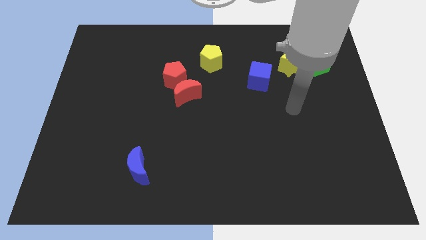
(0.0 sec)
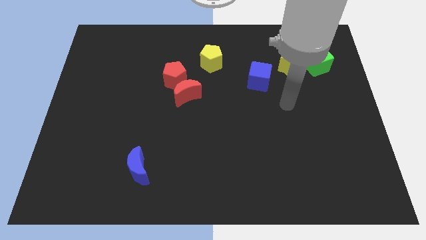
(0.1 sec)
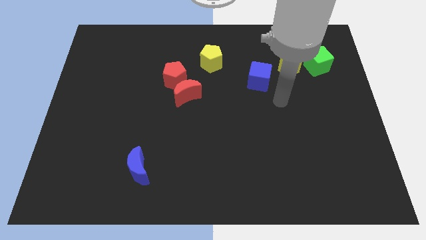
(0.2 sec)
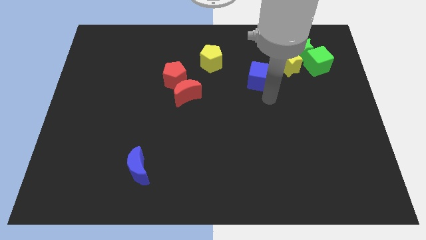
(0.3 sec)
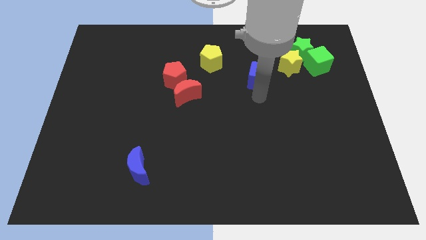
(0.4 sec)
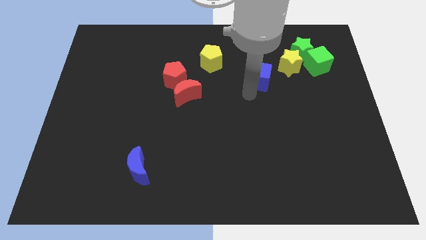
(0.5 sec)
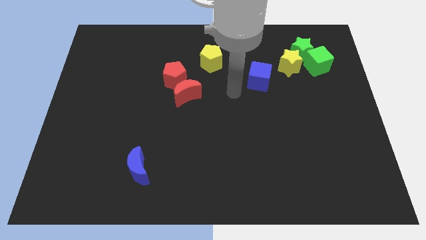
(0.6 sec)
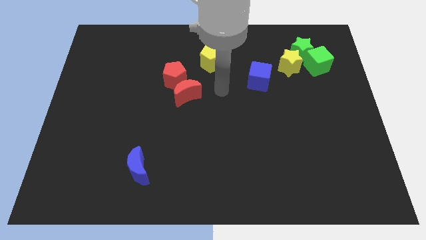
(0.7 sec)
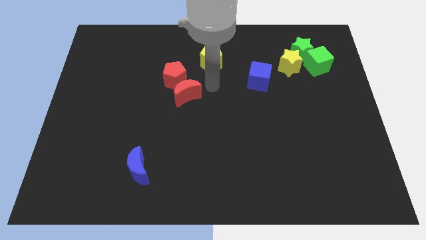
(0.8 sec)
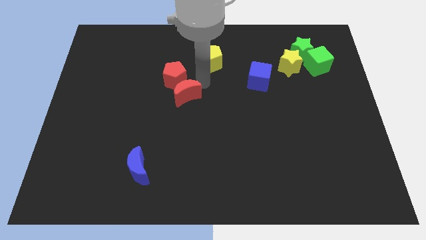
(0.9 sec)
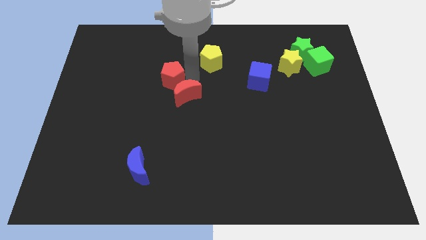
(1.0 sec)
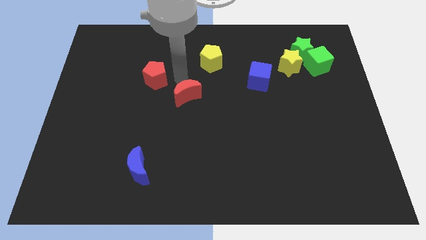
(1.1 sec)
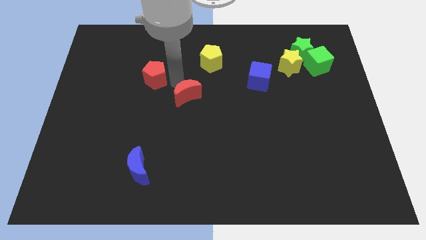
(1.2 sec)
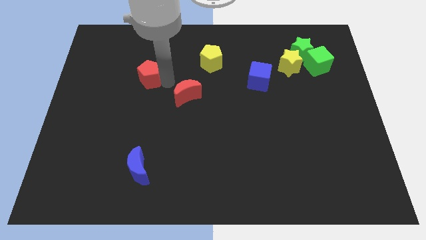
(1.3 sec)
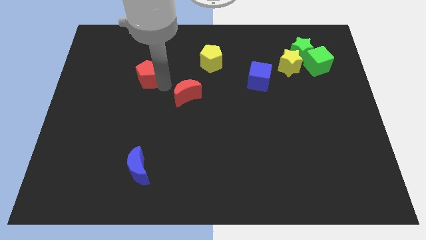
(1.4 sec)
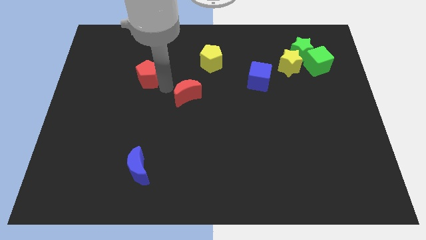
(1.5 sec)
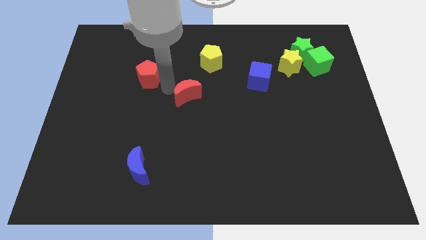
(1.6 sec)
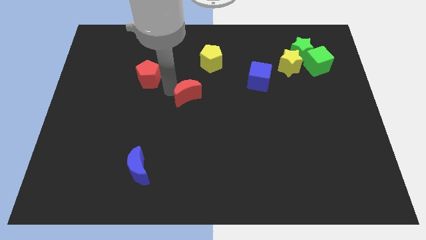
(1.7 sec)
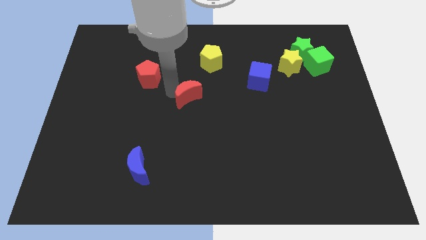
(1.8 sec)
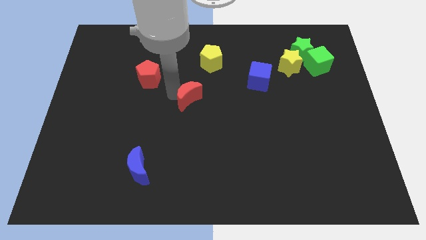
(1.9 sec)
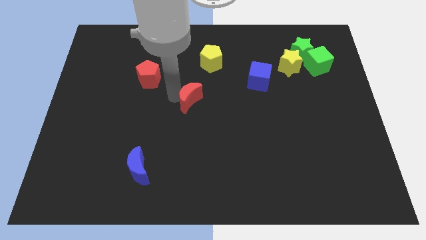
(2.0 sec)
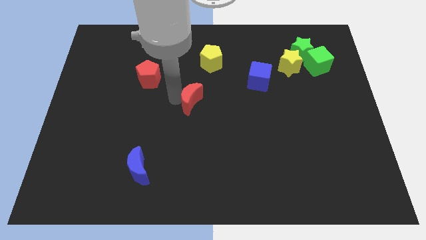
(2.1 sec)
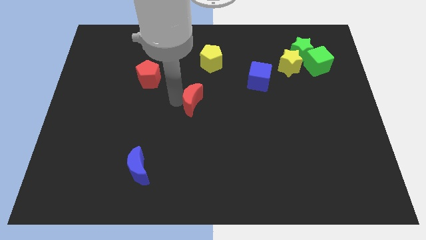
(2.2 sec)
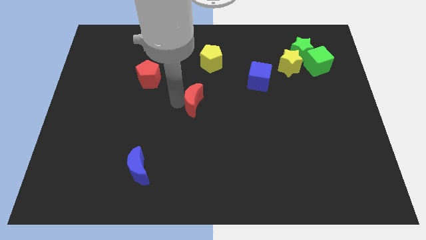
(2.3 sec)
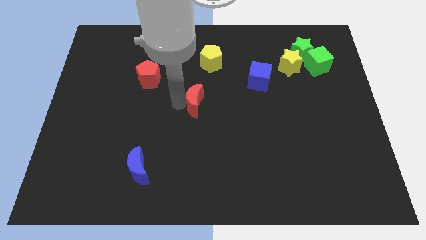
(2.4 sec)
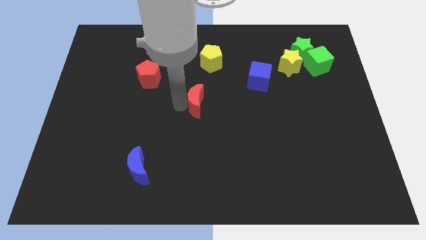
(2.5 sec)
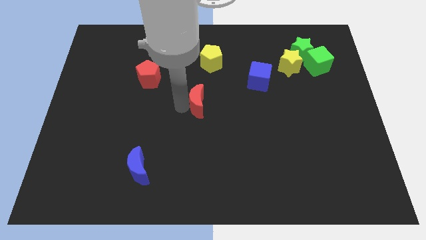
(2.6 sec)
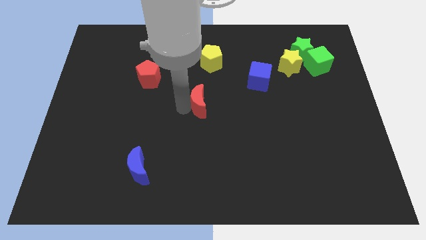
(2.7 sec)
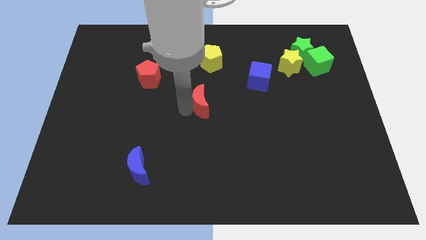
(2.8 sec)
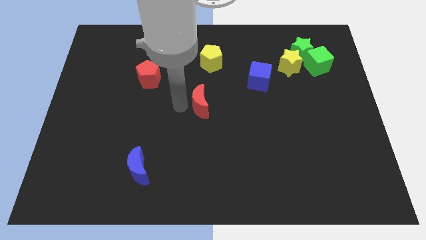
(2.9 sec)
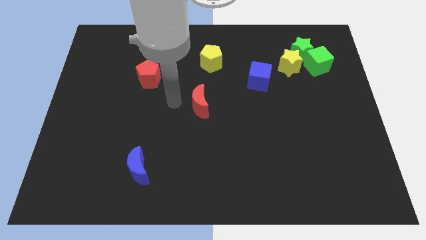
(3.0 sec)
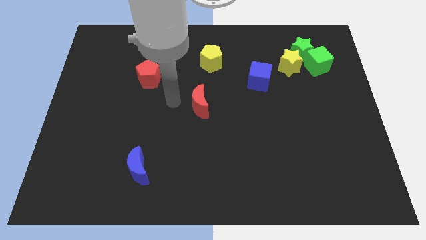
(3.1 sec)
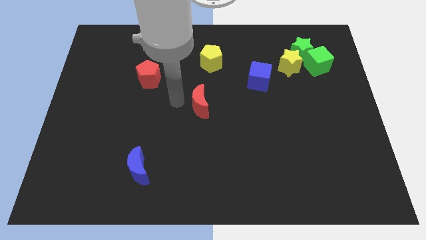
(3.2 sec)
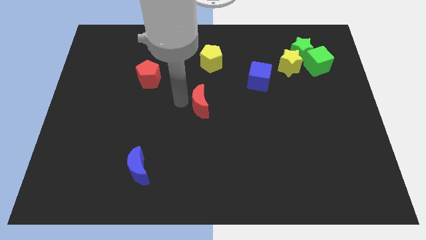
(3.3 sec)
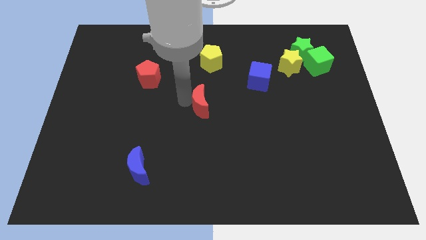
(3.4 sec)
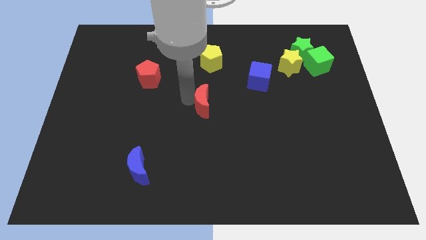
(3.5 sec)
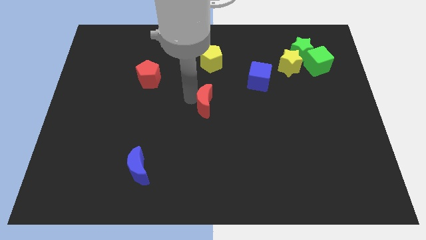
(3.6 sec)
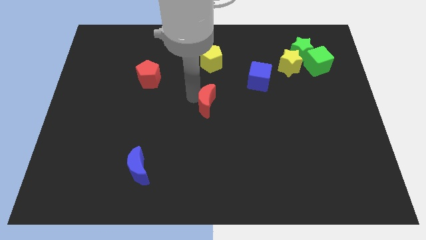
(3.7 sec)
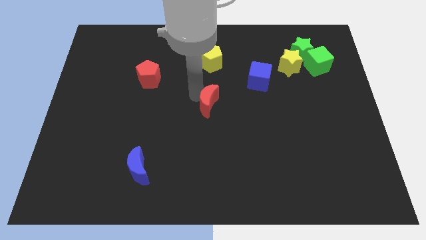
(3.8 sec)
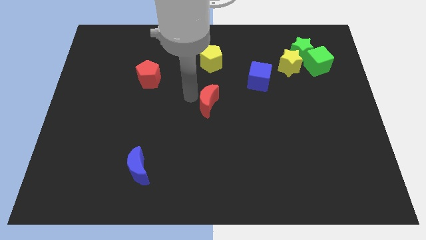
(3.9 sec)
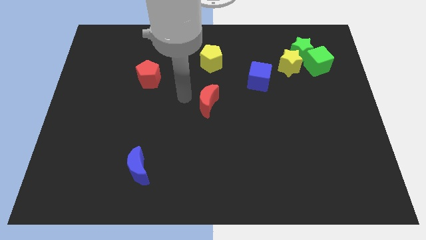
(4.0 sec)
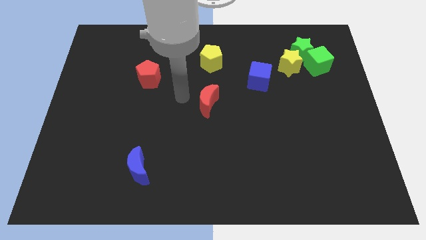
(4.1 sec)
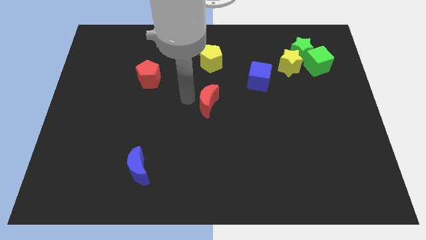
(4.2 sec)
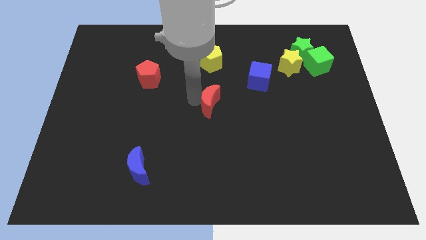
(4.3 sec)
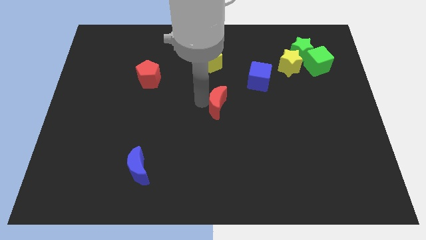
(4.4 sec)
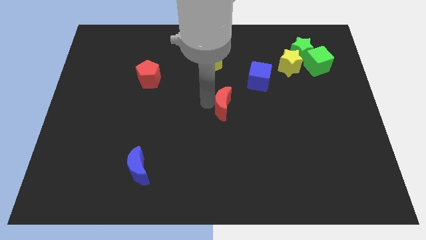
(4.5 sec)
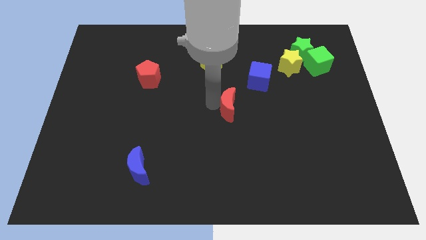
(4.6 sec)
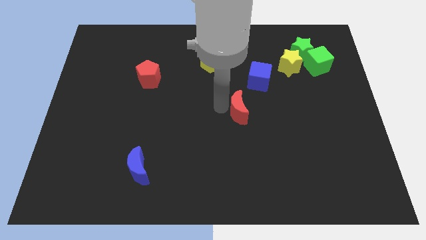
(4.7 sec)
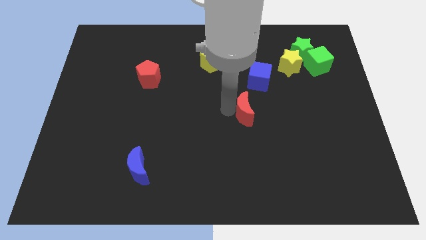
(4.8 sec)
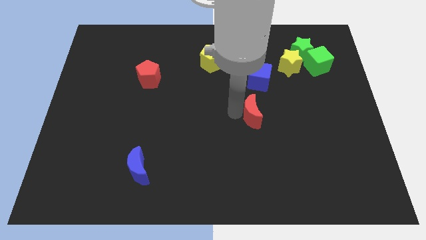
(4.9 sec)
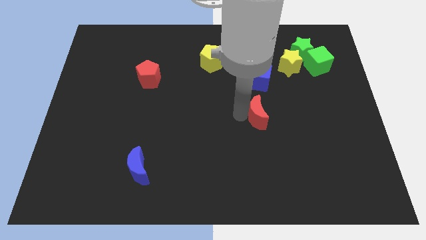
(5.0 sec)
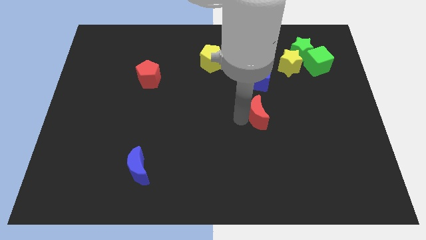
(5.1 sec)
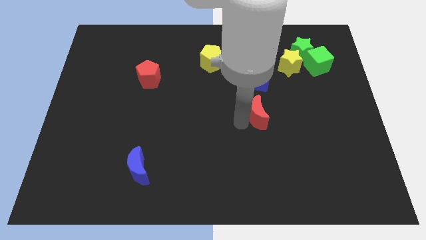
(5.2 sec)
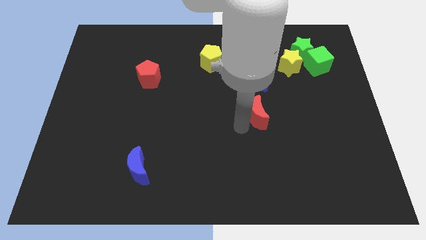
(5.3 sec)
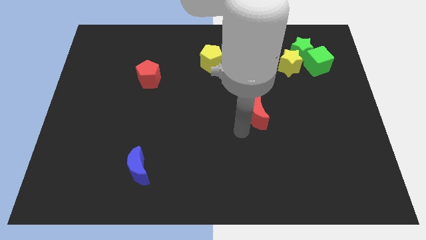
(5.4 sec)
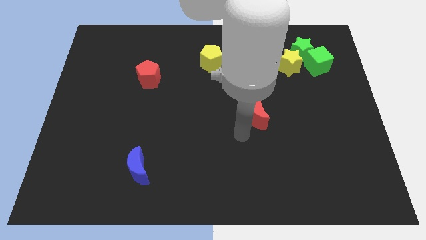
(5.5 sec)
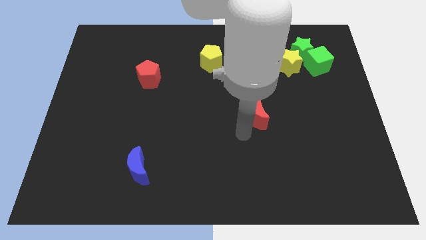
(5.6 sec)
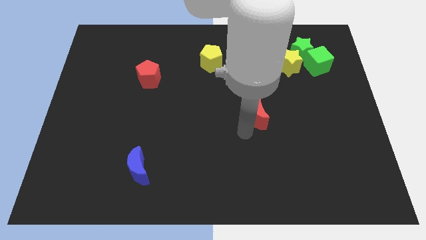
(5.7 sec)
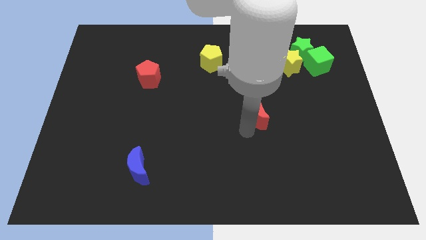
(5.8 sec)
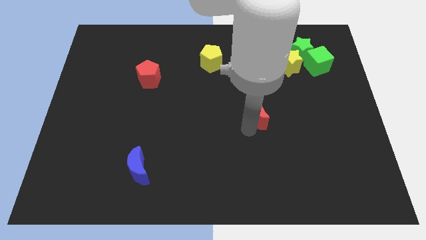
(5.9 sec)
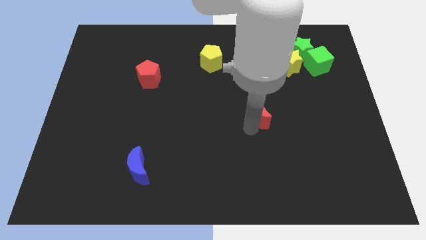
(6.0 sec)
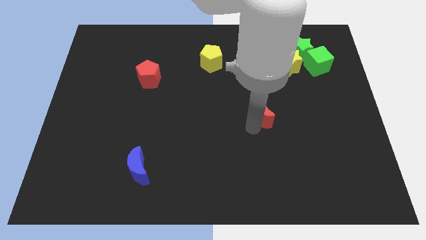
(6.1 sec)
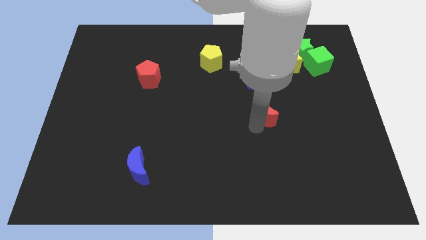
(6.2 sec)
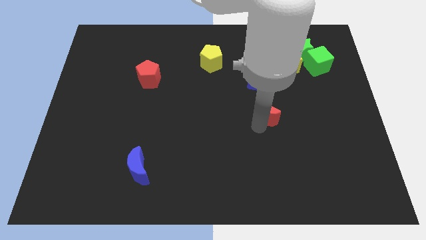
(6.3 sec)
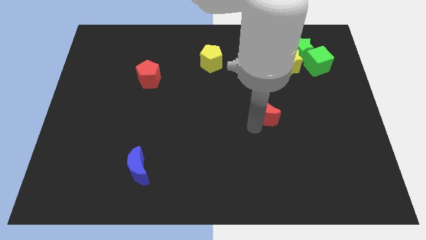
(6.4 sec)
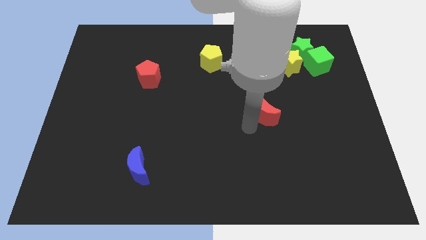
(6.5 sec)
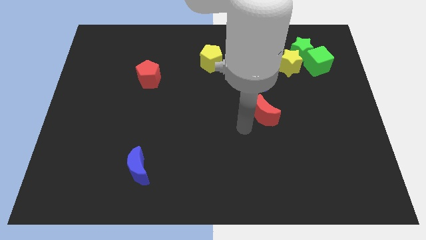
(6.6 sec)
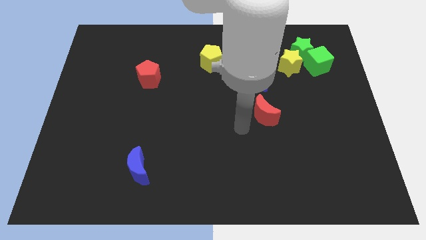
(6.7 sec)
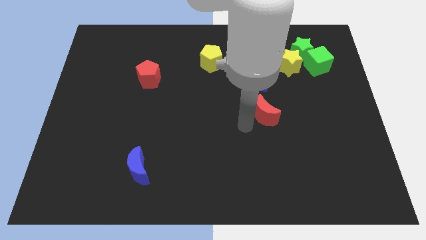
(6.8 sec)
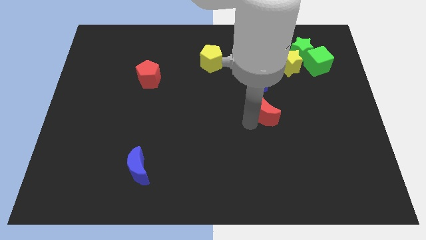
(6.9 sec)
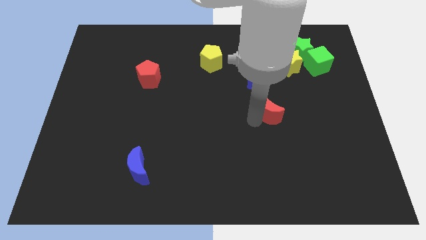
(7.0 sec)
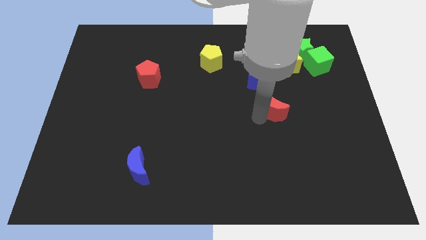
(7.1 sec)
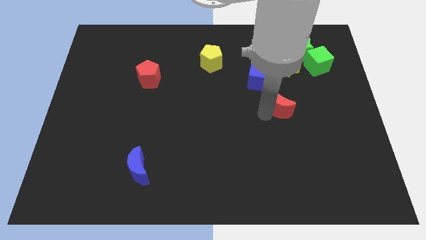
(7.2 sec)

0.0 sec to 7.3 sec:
move the red moon right
